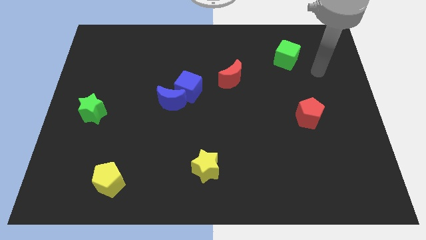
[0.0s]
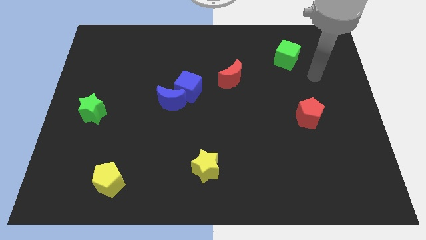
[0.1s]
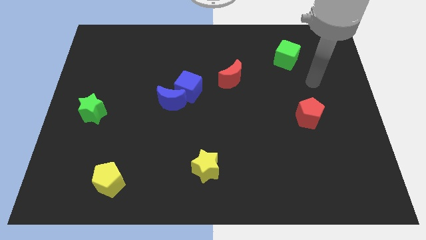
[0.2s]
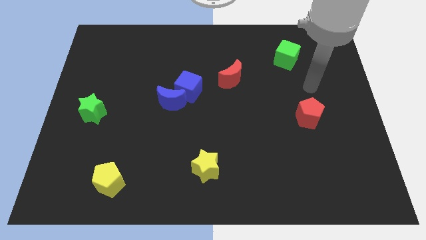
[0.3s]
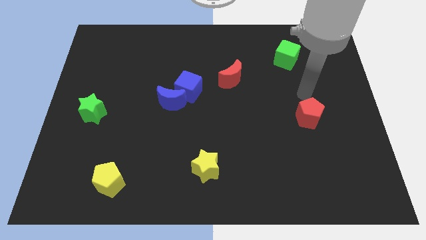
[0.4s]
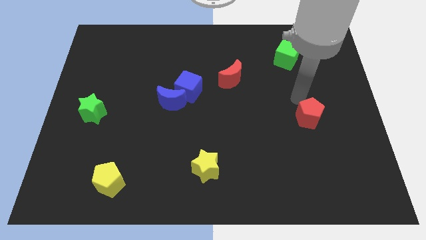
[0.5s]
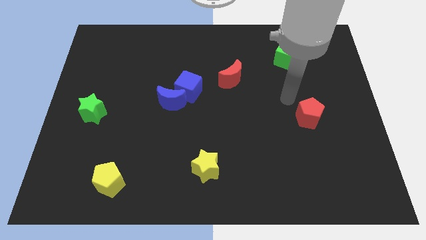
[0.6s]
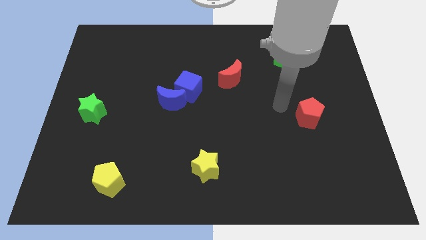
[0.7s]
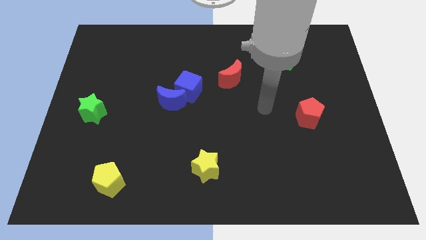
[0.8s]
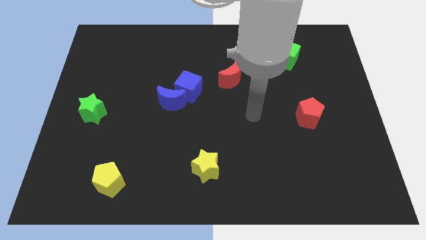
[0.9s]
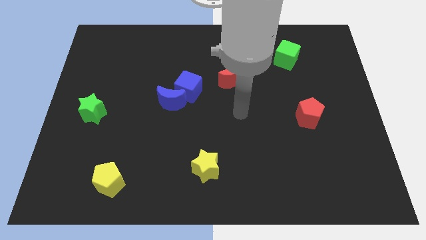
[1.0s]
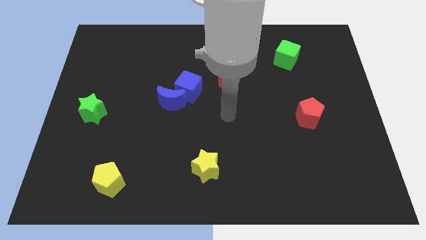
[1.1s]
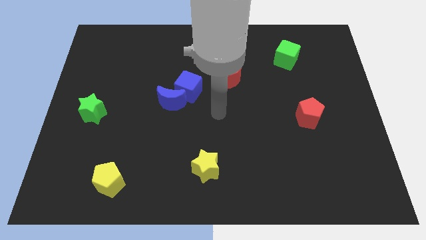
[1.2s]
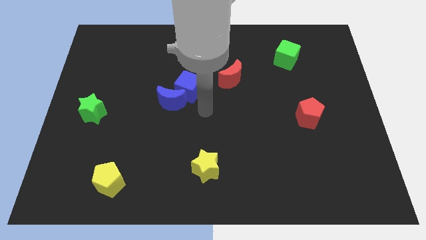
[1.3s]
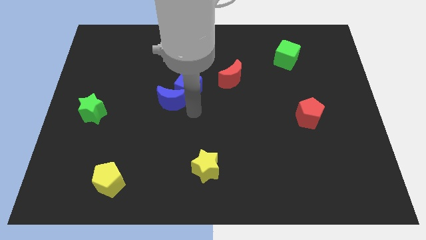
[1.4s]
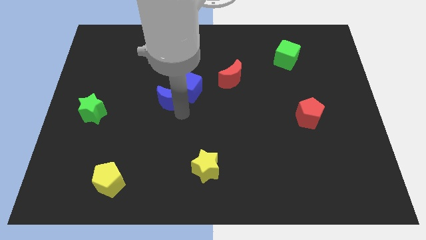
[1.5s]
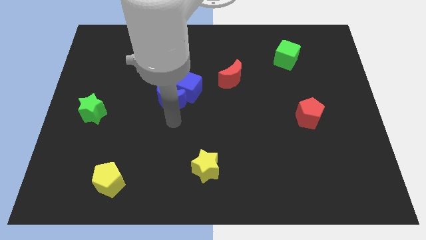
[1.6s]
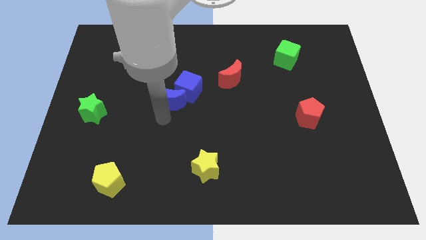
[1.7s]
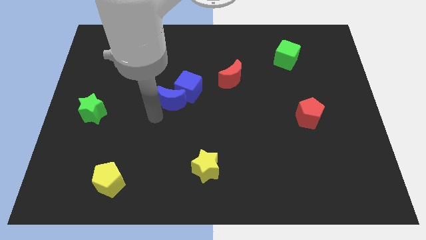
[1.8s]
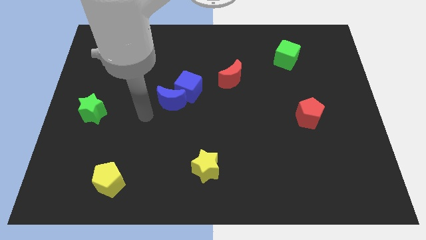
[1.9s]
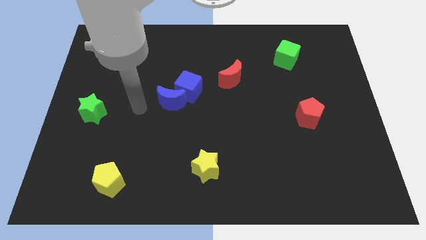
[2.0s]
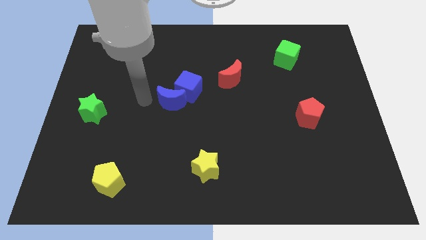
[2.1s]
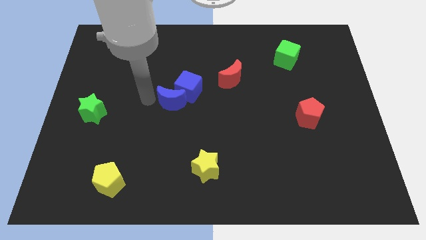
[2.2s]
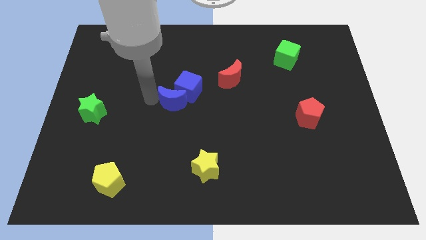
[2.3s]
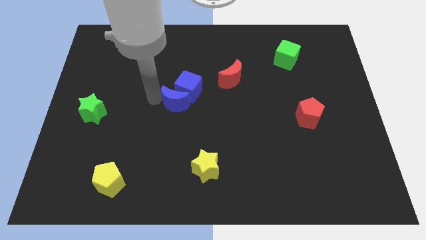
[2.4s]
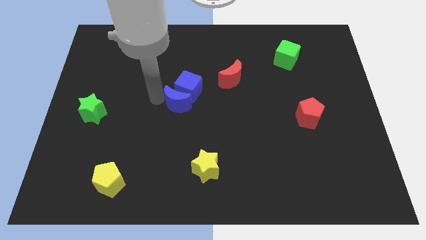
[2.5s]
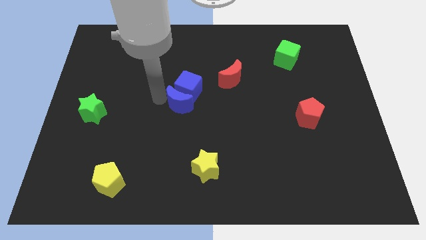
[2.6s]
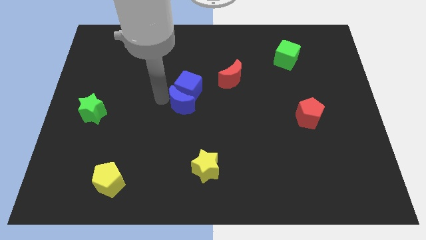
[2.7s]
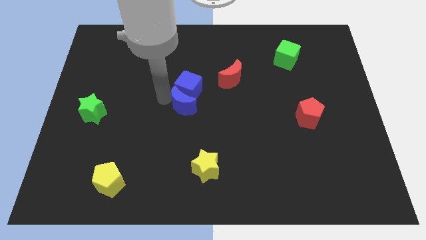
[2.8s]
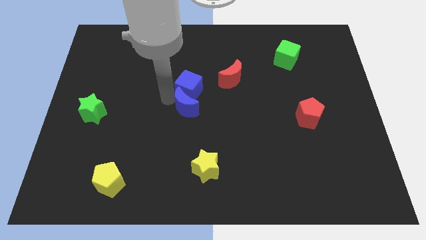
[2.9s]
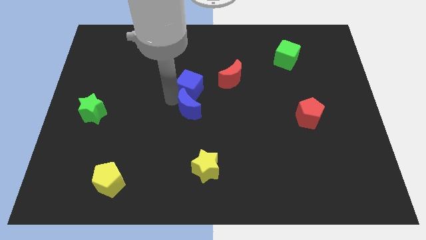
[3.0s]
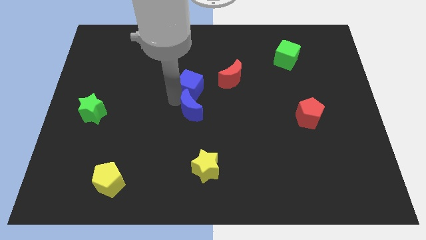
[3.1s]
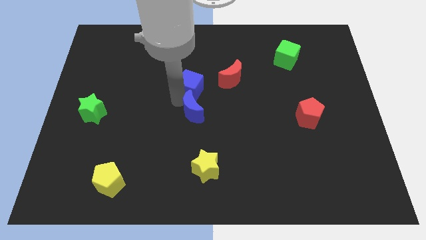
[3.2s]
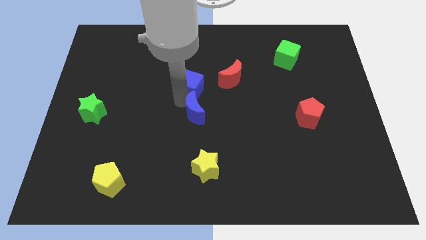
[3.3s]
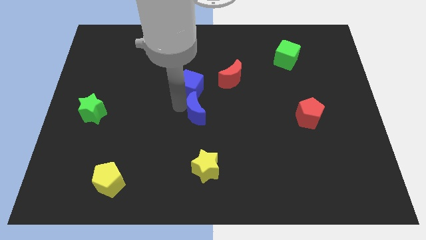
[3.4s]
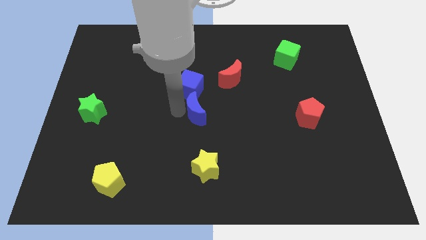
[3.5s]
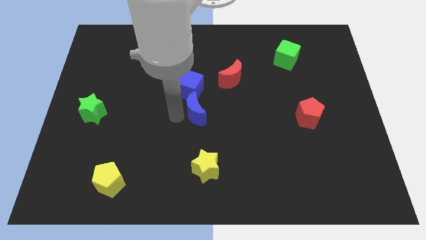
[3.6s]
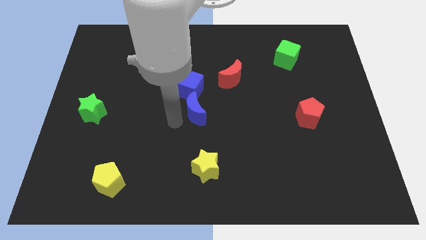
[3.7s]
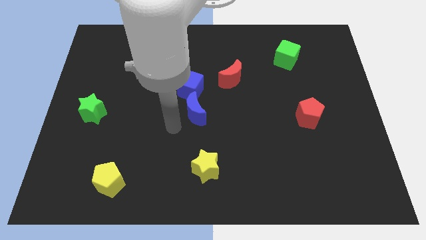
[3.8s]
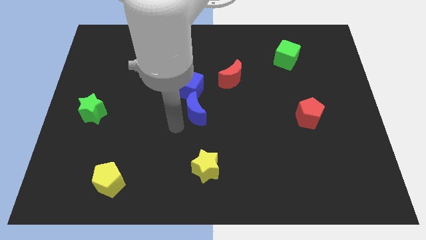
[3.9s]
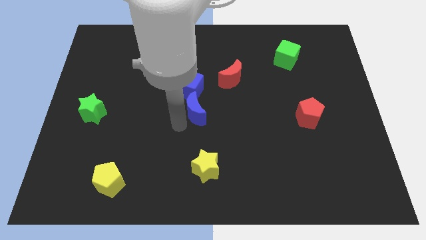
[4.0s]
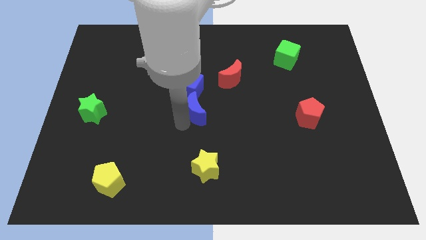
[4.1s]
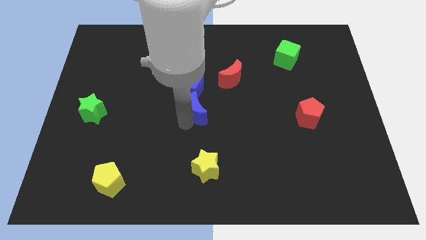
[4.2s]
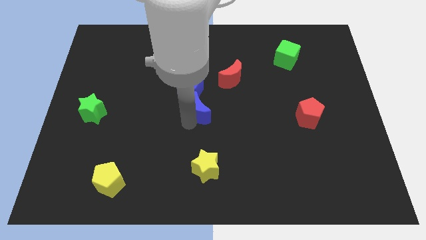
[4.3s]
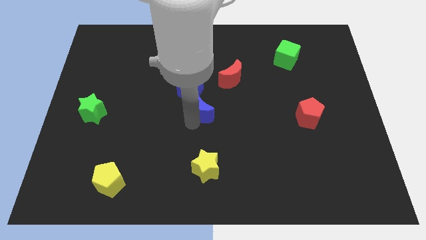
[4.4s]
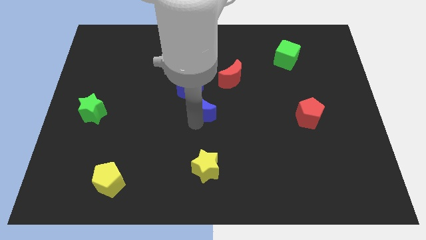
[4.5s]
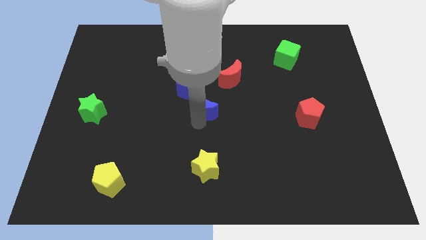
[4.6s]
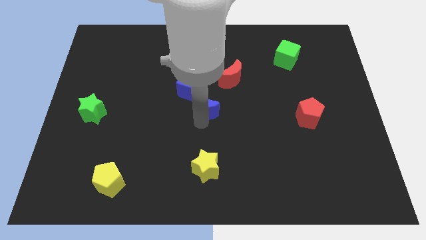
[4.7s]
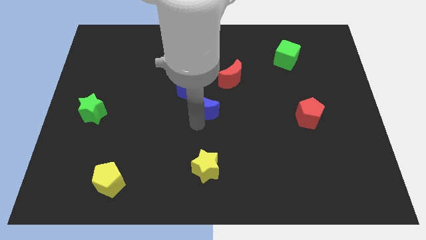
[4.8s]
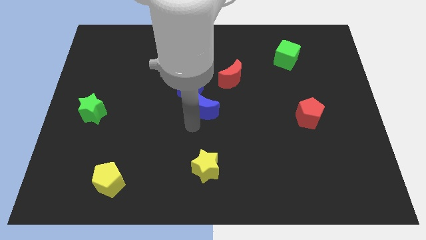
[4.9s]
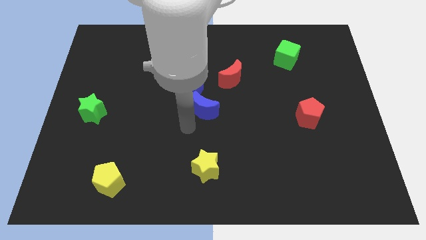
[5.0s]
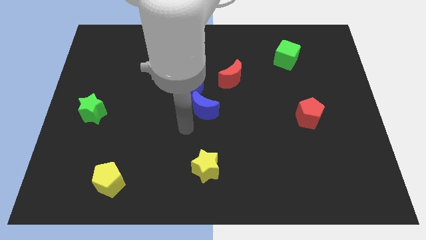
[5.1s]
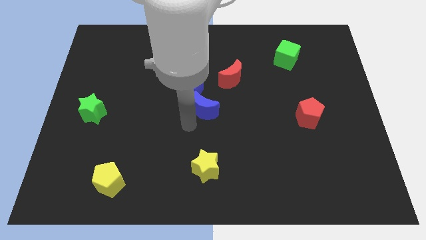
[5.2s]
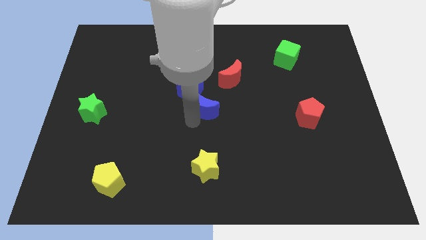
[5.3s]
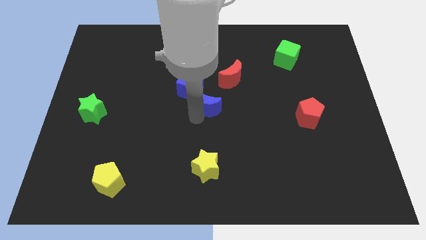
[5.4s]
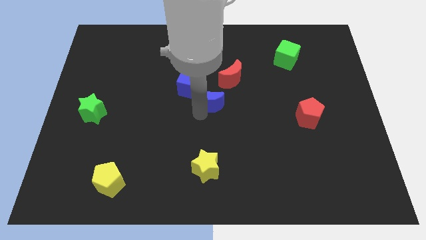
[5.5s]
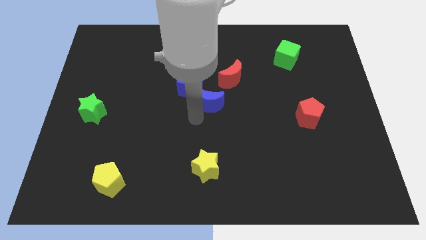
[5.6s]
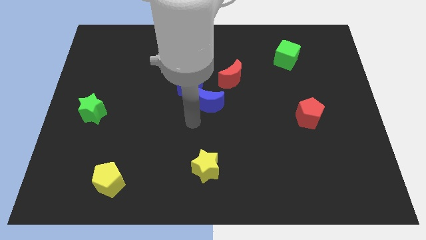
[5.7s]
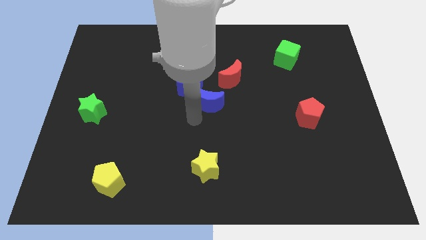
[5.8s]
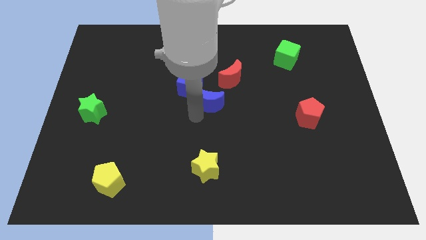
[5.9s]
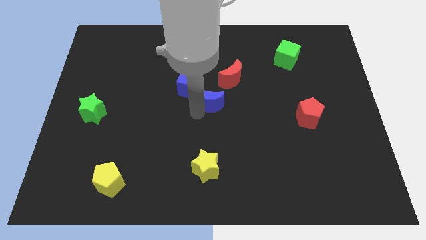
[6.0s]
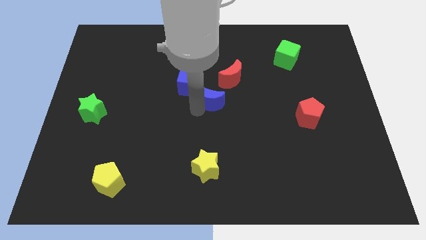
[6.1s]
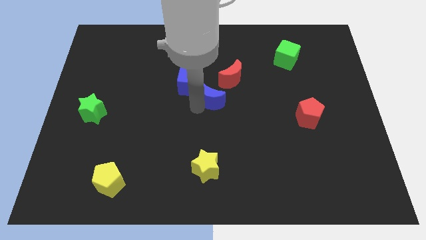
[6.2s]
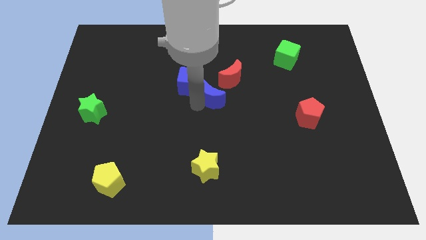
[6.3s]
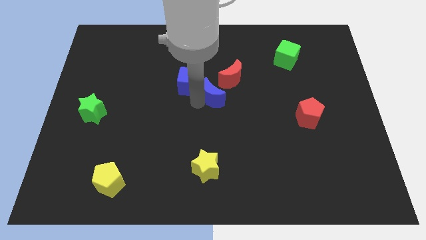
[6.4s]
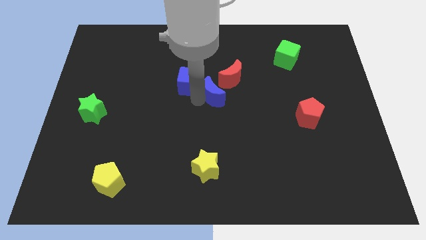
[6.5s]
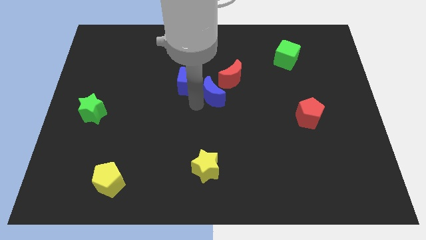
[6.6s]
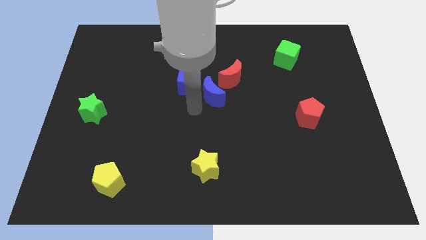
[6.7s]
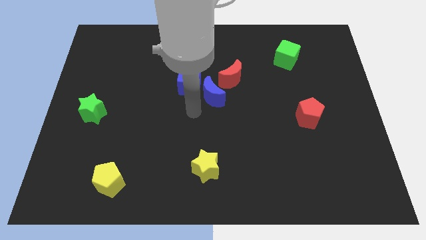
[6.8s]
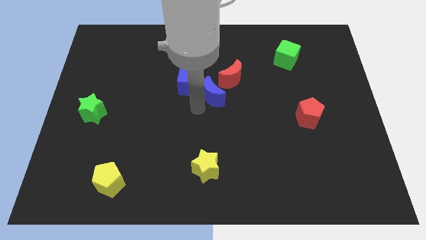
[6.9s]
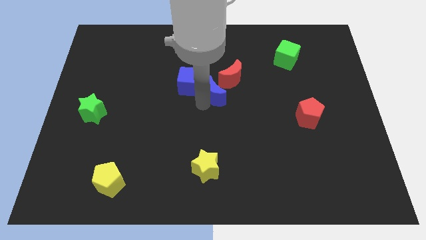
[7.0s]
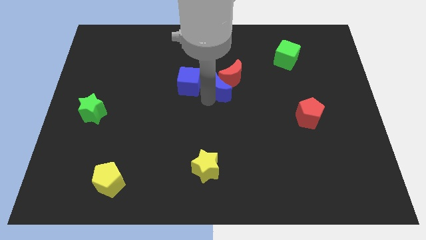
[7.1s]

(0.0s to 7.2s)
put the blue moon towards the red moon

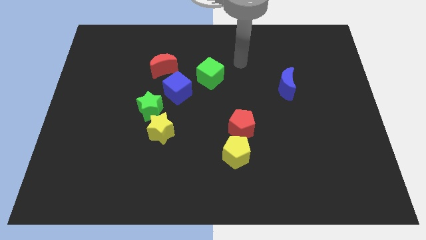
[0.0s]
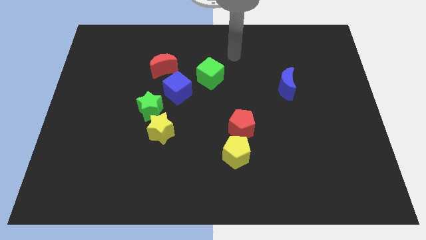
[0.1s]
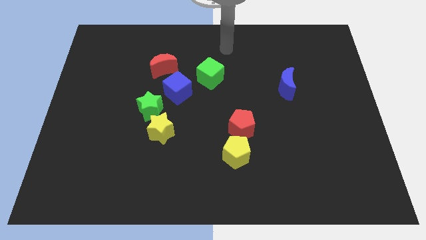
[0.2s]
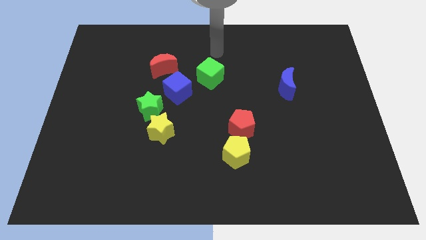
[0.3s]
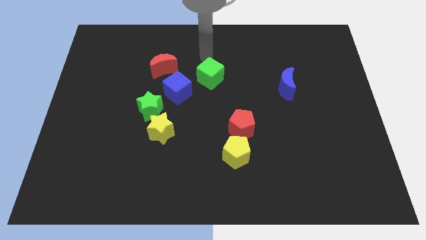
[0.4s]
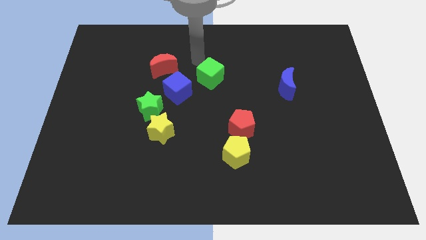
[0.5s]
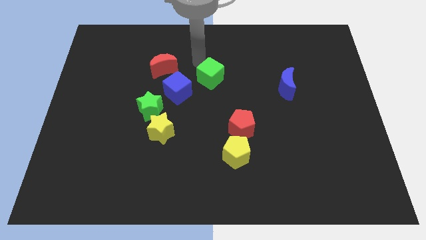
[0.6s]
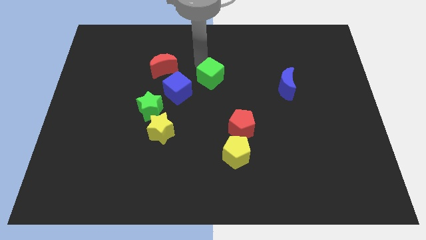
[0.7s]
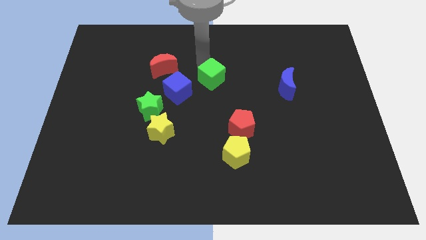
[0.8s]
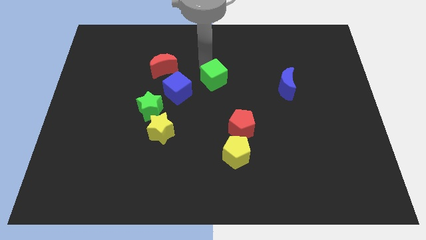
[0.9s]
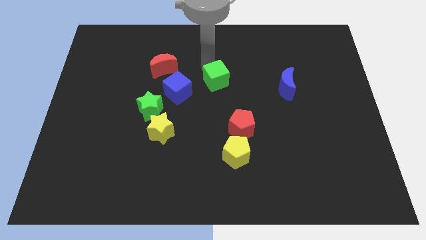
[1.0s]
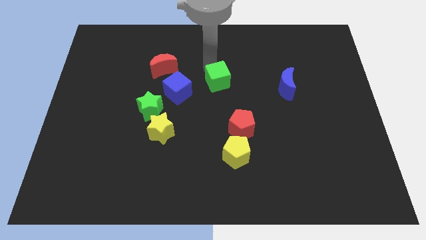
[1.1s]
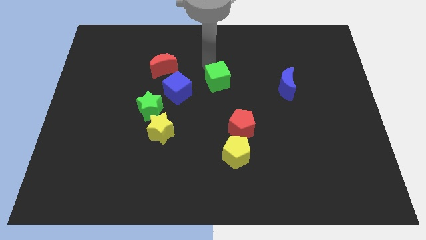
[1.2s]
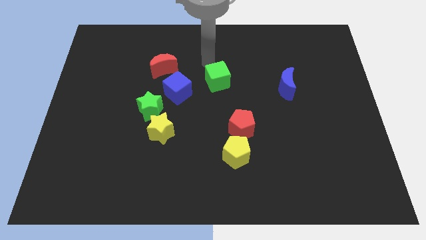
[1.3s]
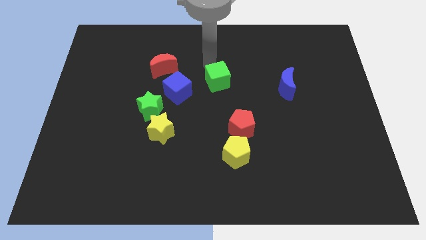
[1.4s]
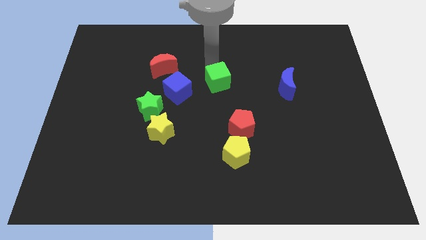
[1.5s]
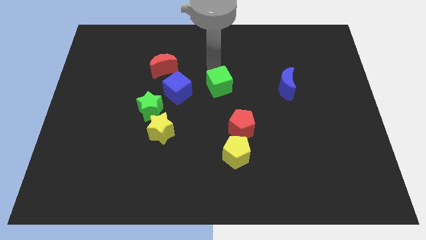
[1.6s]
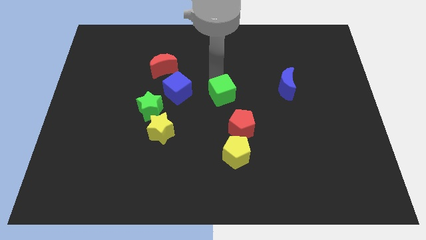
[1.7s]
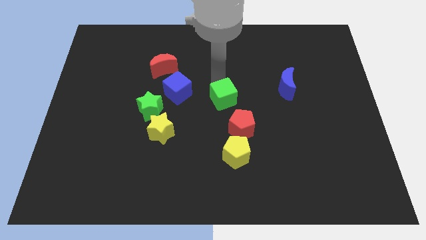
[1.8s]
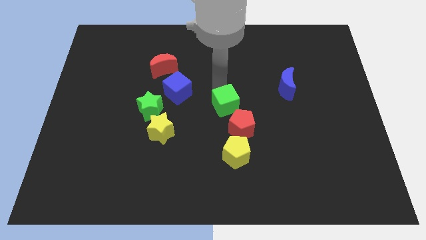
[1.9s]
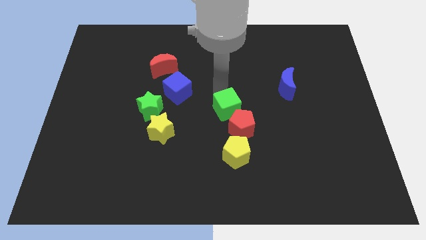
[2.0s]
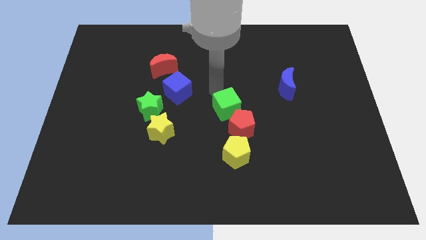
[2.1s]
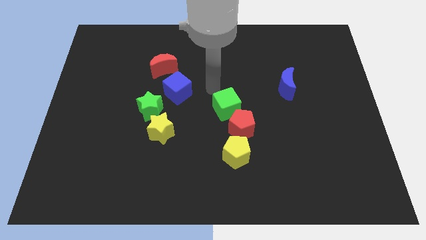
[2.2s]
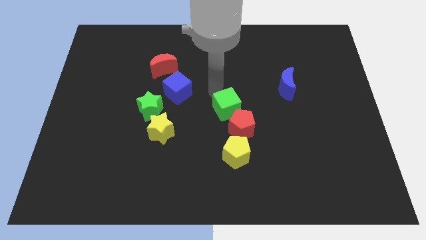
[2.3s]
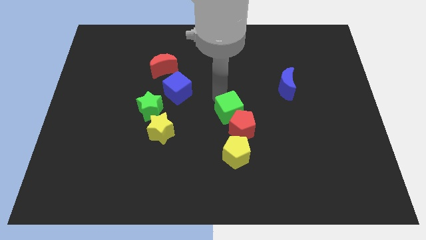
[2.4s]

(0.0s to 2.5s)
push the green cube towards the red pentagon
